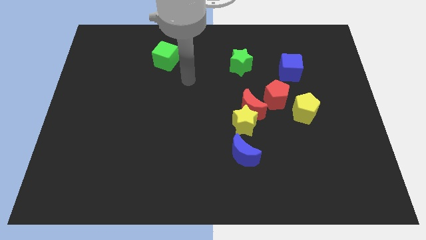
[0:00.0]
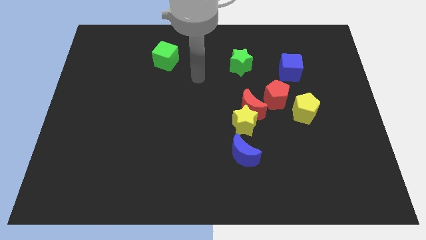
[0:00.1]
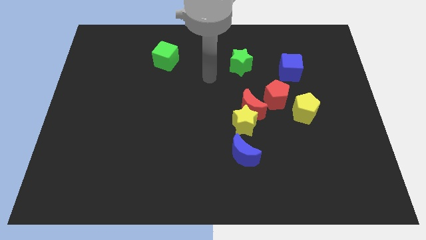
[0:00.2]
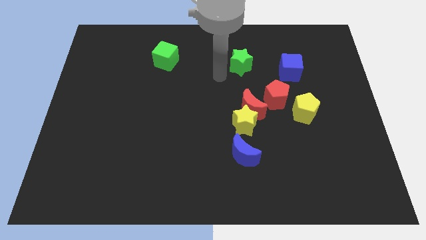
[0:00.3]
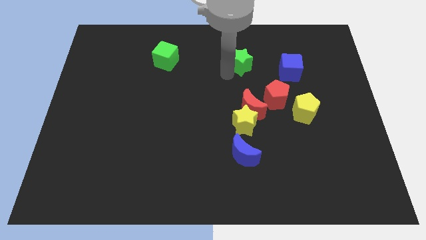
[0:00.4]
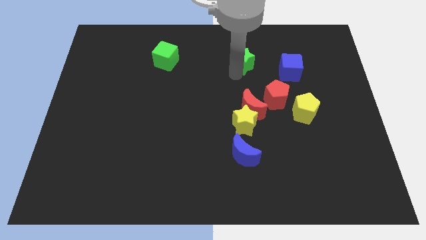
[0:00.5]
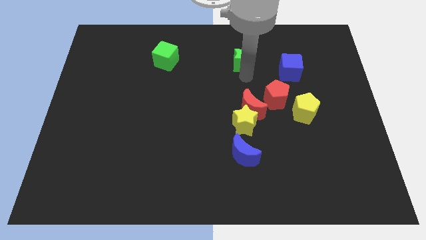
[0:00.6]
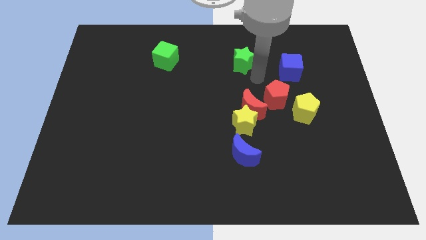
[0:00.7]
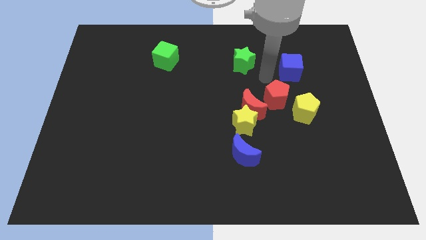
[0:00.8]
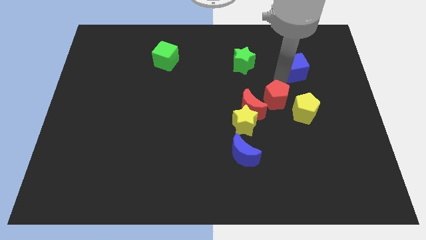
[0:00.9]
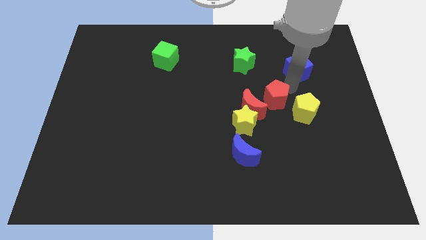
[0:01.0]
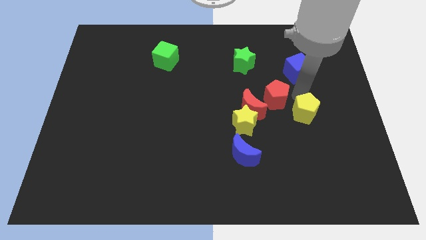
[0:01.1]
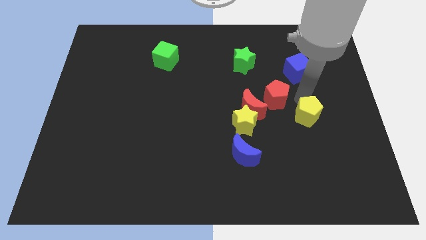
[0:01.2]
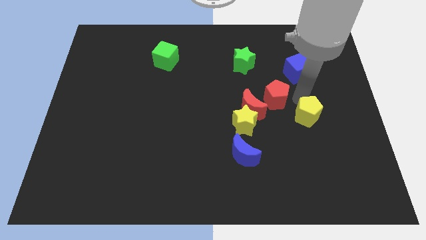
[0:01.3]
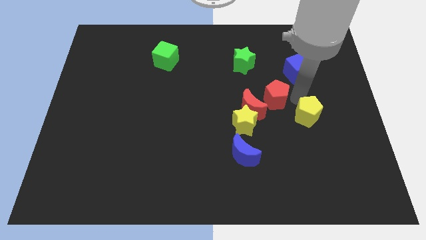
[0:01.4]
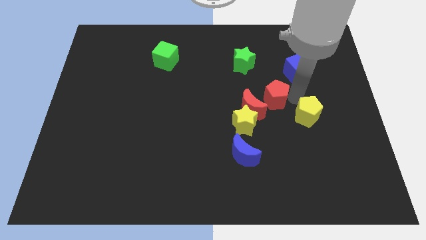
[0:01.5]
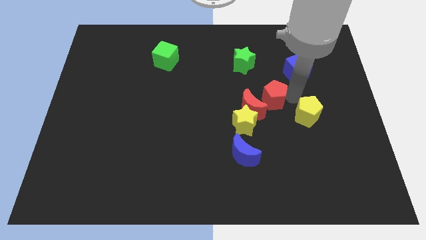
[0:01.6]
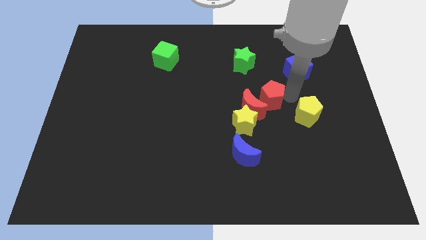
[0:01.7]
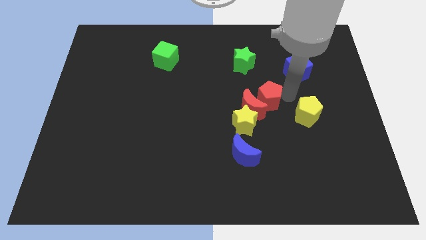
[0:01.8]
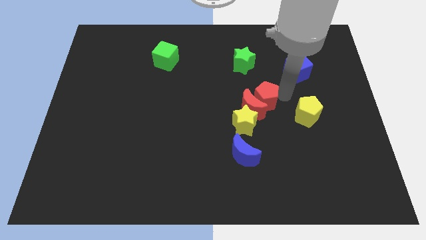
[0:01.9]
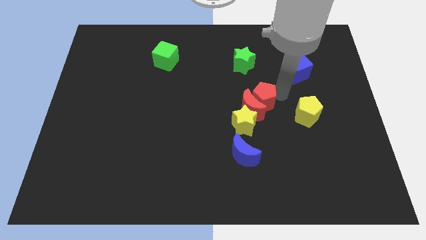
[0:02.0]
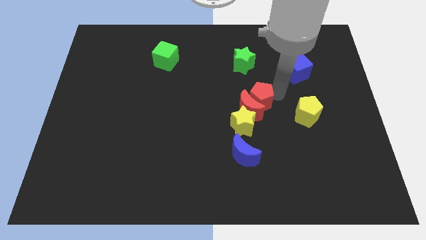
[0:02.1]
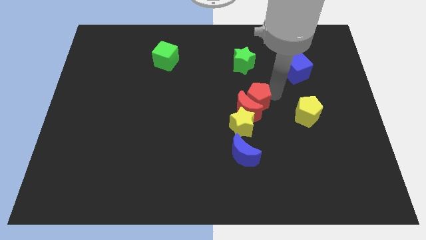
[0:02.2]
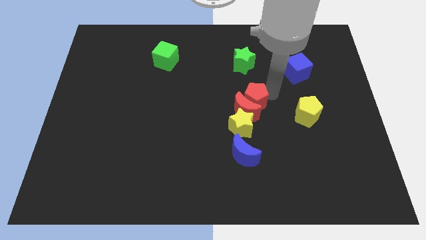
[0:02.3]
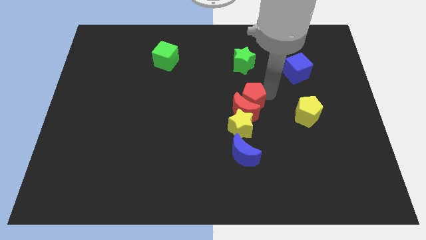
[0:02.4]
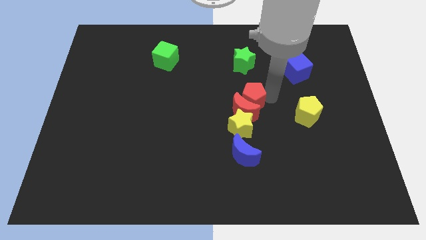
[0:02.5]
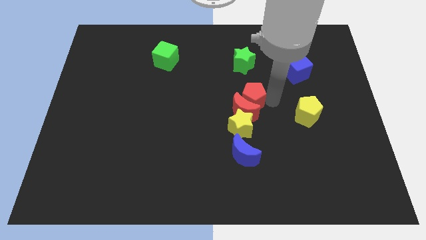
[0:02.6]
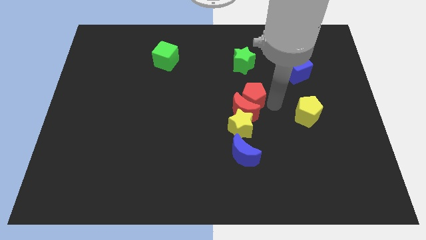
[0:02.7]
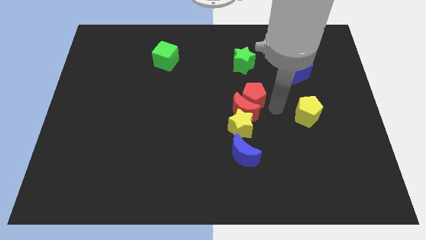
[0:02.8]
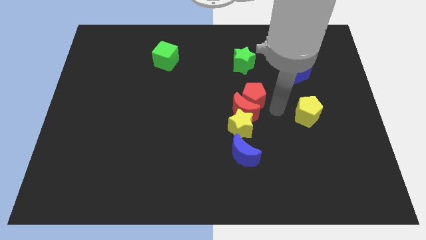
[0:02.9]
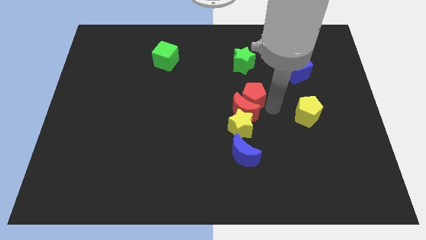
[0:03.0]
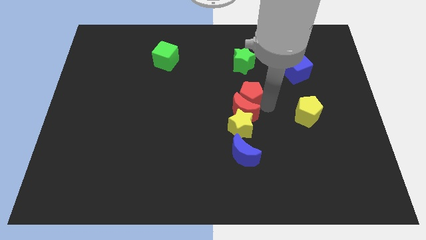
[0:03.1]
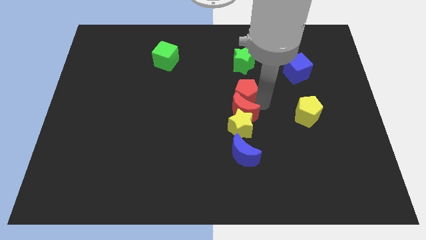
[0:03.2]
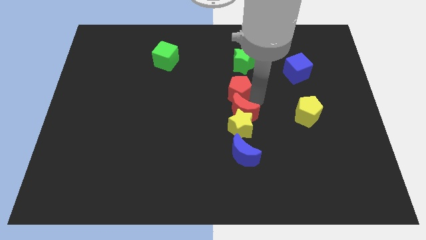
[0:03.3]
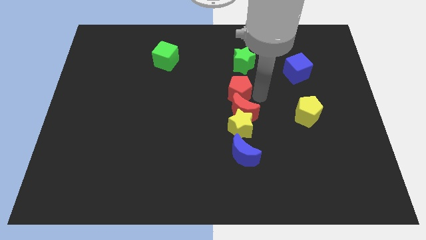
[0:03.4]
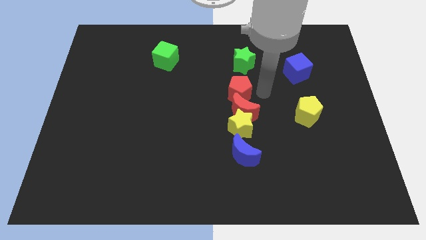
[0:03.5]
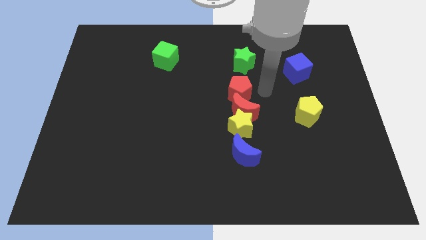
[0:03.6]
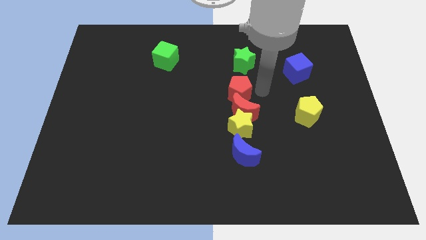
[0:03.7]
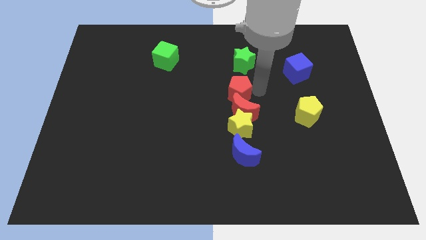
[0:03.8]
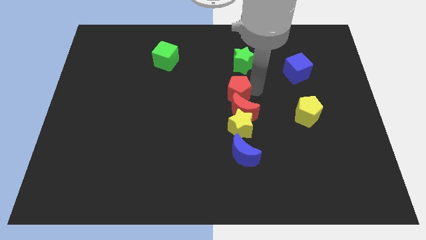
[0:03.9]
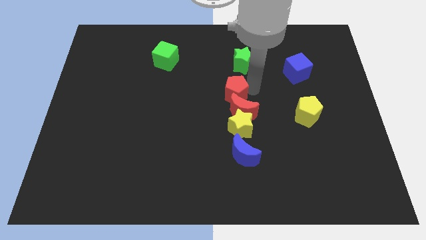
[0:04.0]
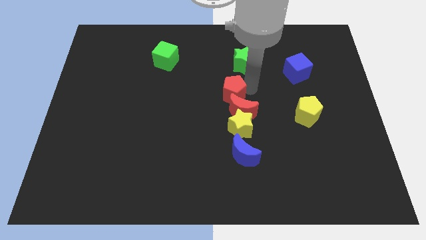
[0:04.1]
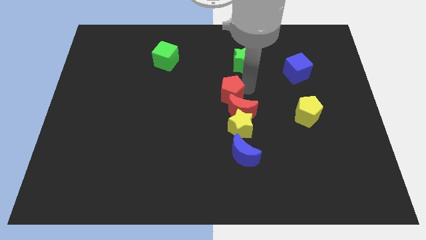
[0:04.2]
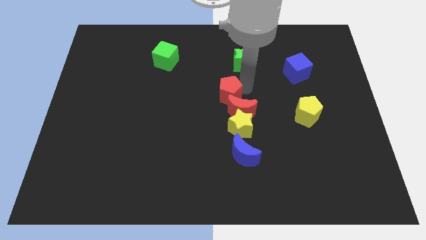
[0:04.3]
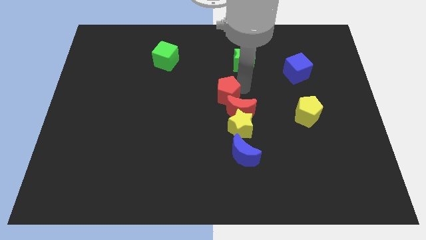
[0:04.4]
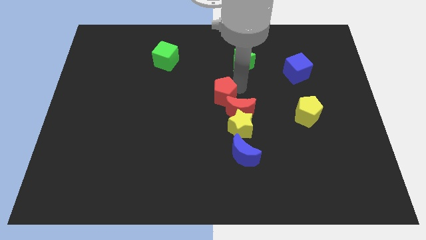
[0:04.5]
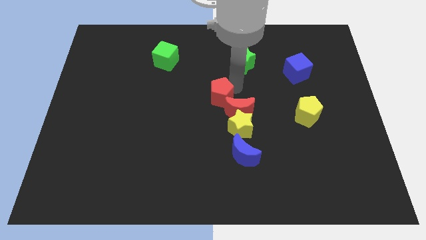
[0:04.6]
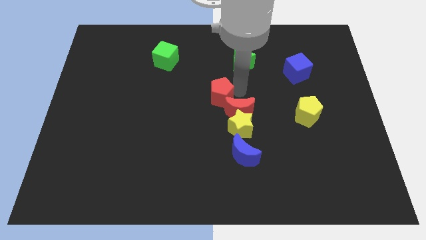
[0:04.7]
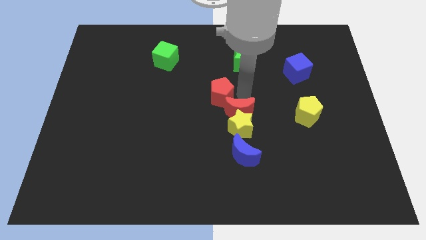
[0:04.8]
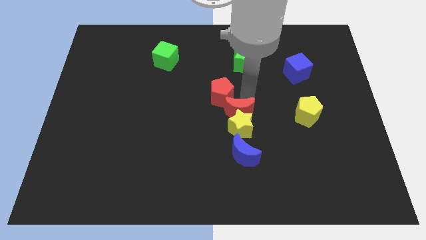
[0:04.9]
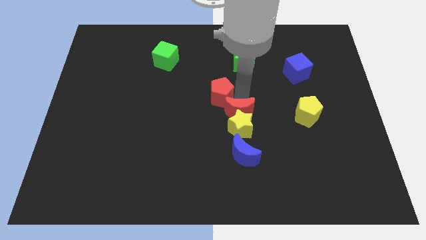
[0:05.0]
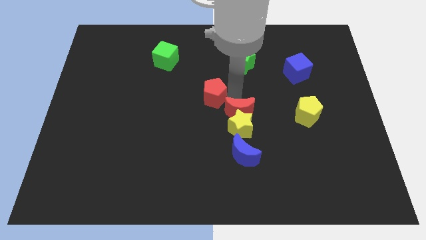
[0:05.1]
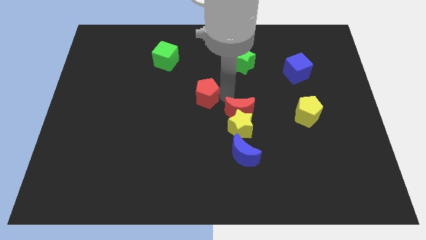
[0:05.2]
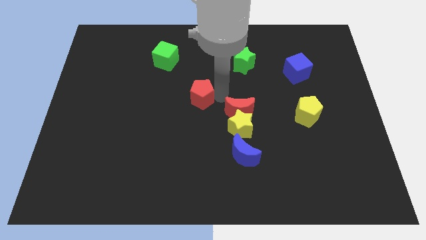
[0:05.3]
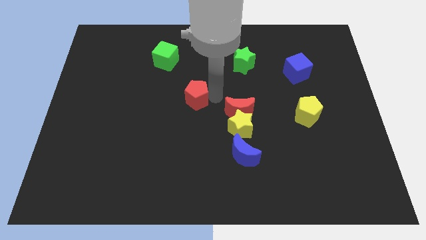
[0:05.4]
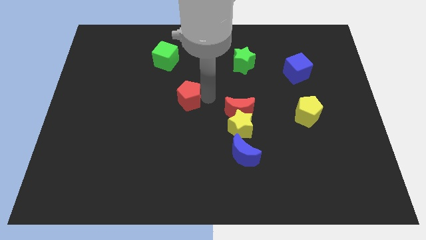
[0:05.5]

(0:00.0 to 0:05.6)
push the red pentagon to the left

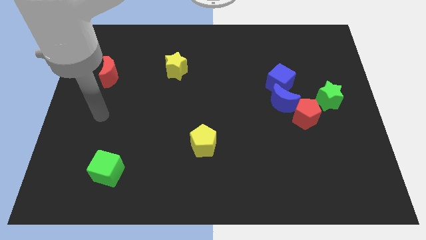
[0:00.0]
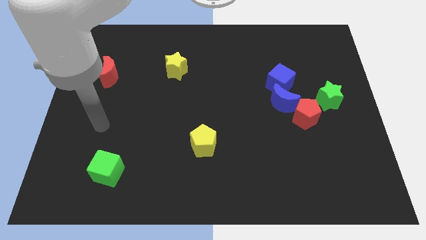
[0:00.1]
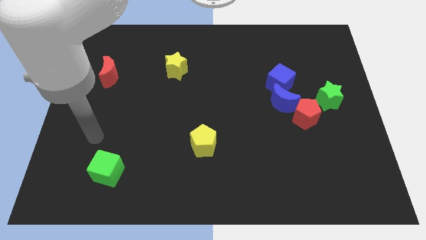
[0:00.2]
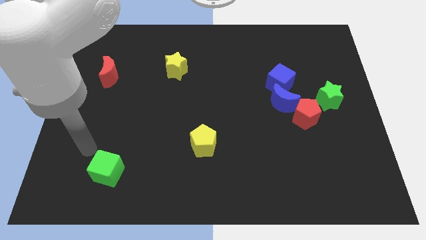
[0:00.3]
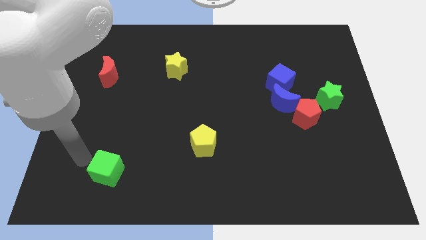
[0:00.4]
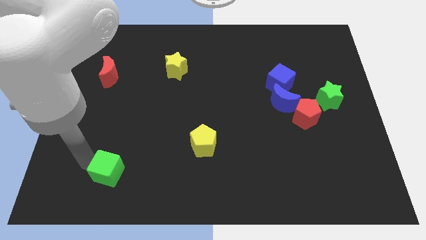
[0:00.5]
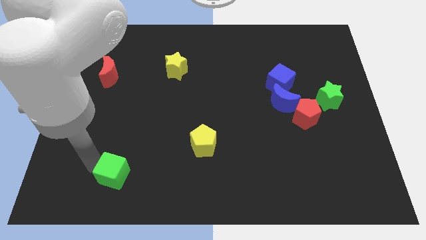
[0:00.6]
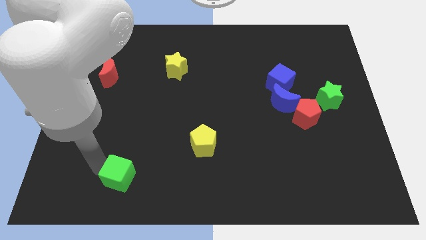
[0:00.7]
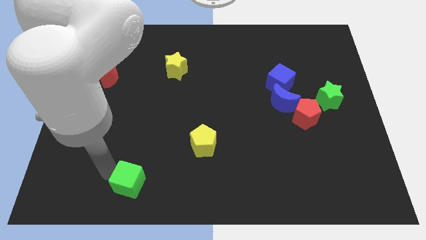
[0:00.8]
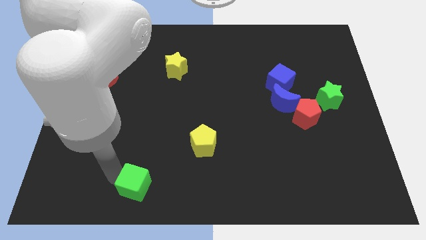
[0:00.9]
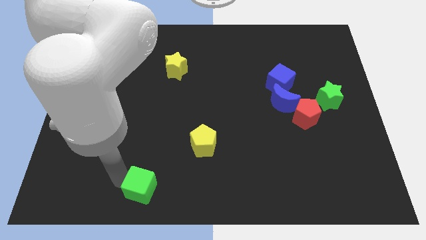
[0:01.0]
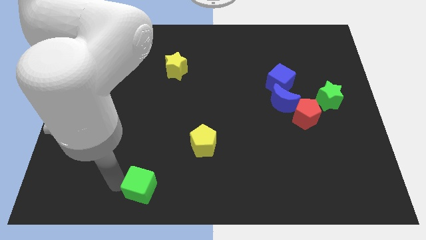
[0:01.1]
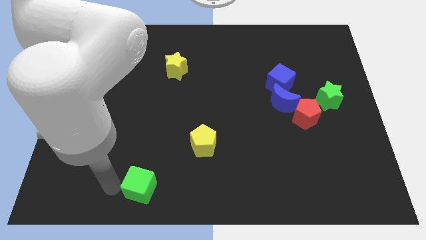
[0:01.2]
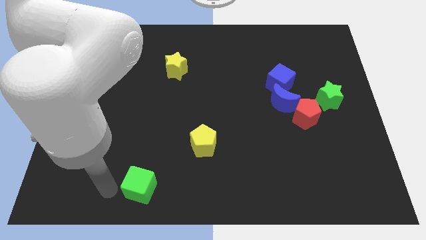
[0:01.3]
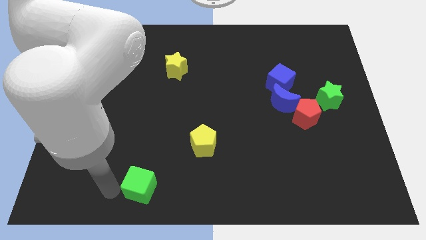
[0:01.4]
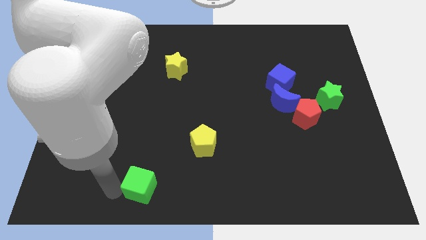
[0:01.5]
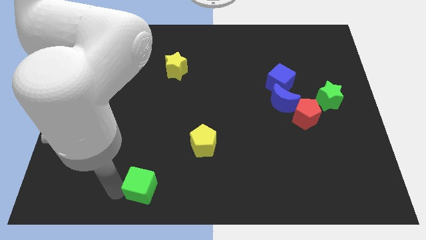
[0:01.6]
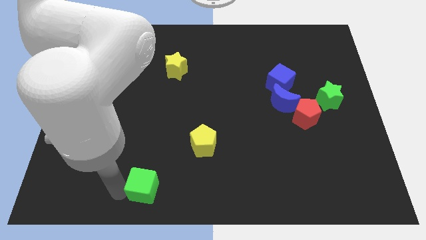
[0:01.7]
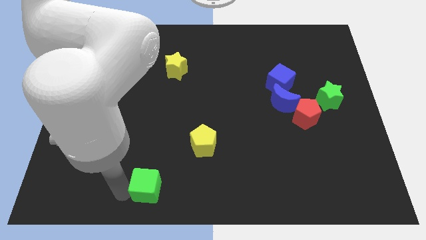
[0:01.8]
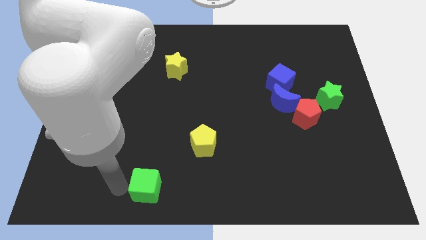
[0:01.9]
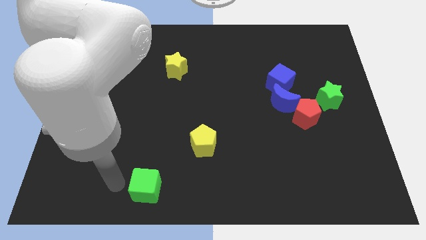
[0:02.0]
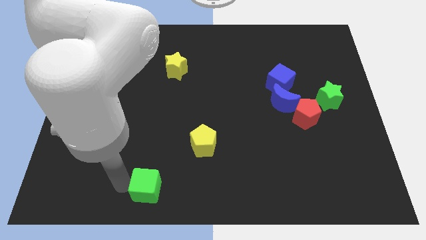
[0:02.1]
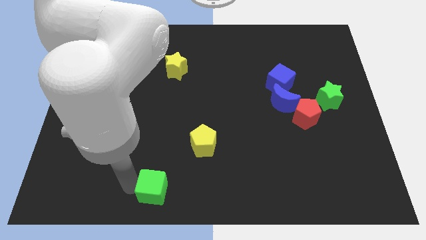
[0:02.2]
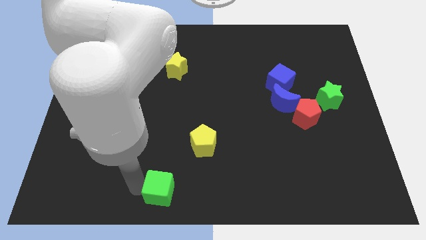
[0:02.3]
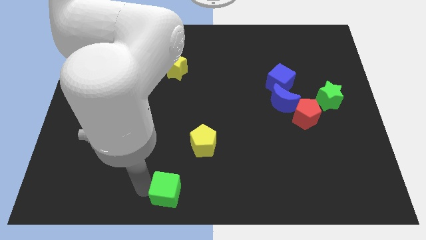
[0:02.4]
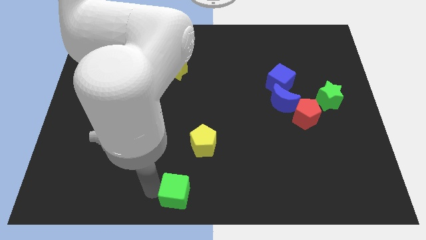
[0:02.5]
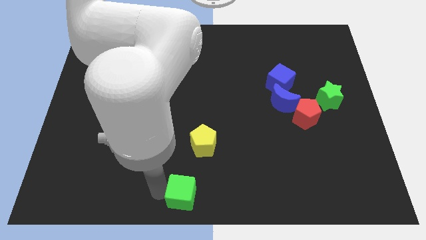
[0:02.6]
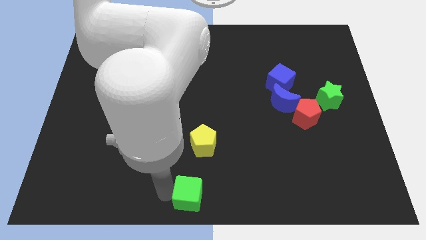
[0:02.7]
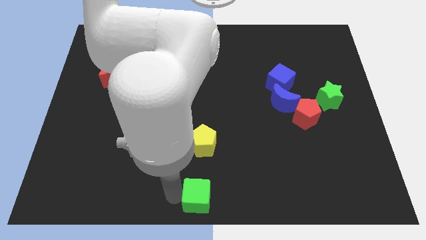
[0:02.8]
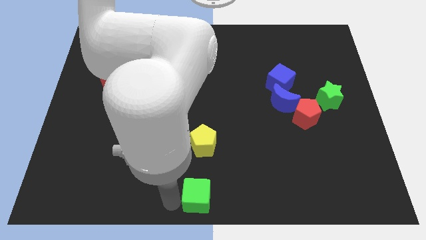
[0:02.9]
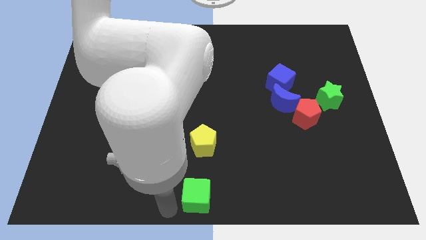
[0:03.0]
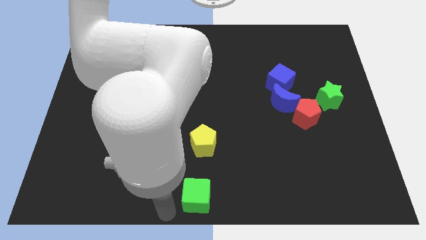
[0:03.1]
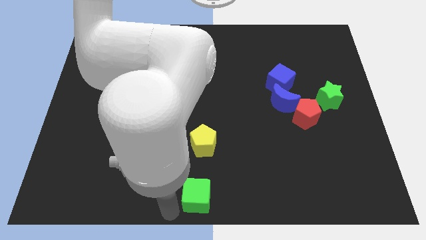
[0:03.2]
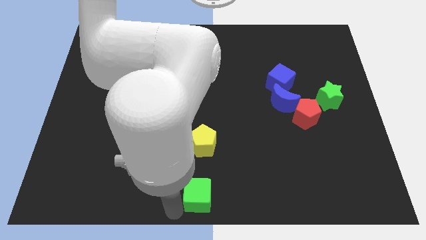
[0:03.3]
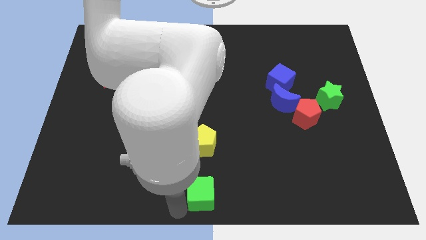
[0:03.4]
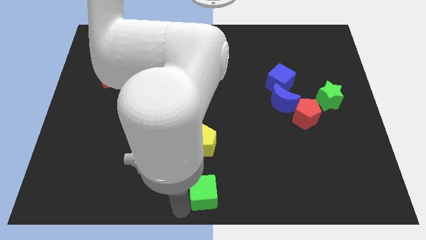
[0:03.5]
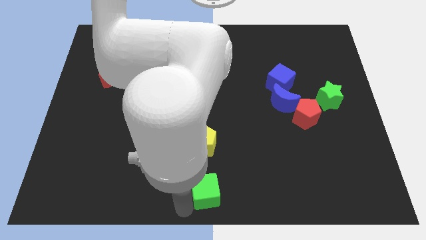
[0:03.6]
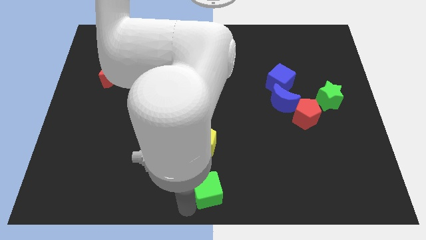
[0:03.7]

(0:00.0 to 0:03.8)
move the green cube right
